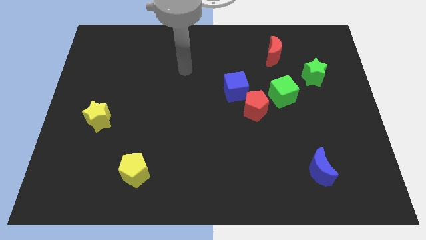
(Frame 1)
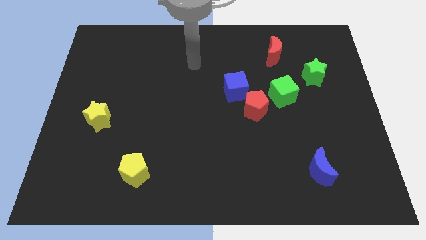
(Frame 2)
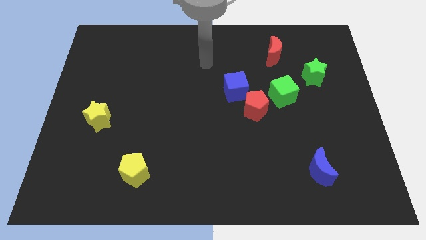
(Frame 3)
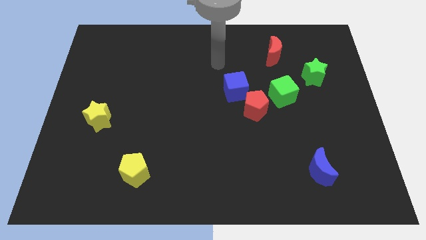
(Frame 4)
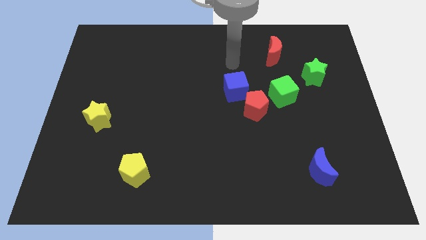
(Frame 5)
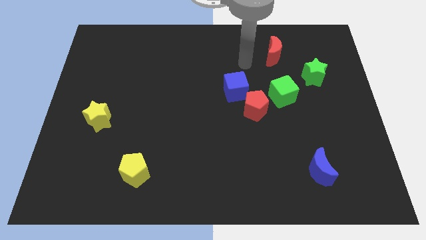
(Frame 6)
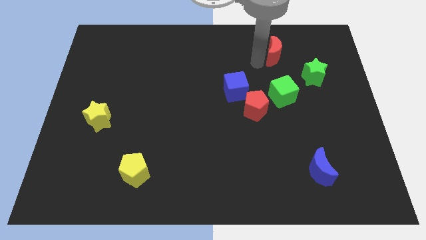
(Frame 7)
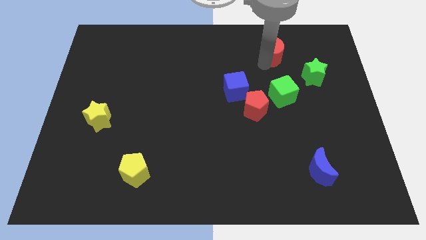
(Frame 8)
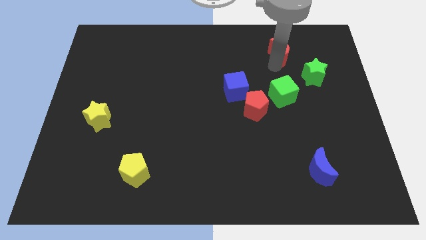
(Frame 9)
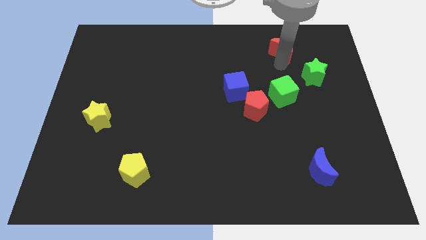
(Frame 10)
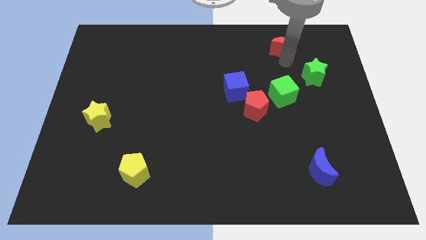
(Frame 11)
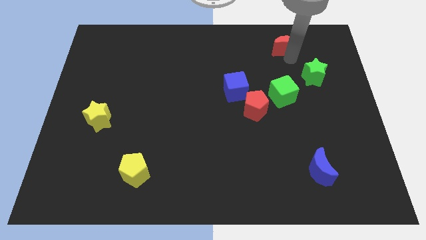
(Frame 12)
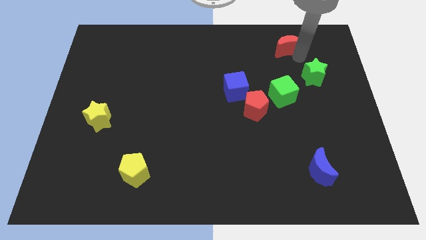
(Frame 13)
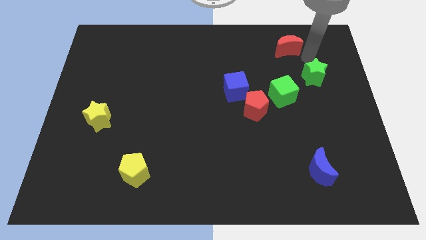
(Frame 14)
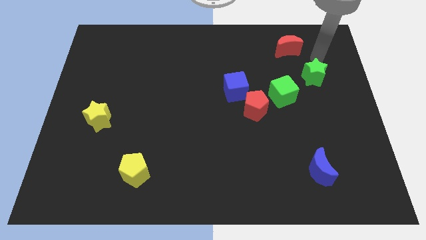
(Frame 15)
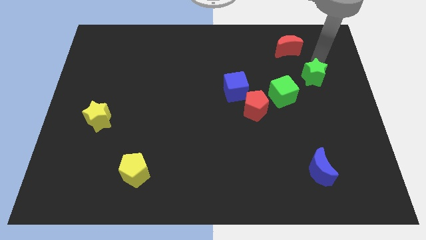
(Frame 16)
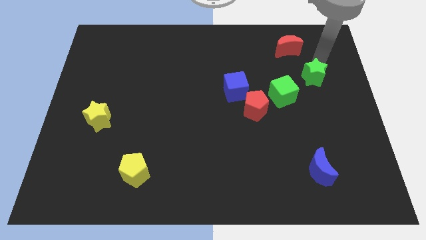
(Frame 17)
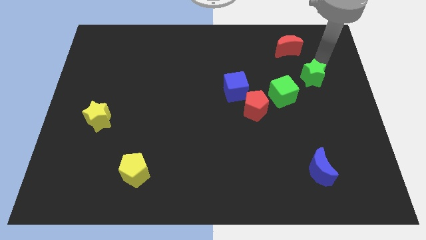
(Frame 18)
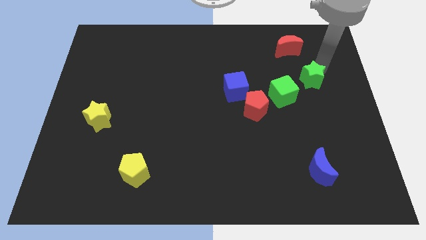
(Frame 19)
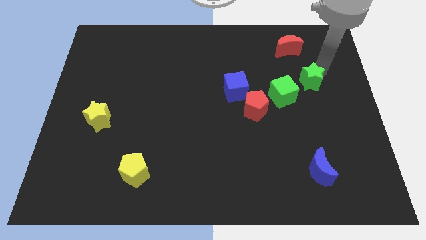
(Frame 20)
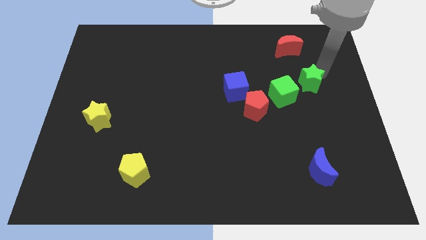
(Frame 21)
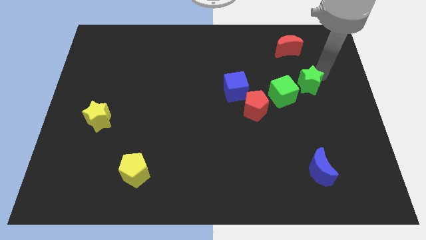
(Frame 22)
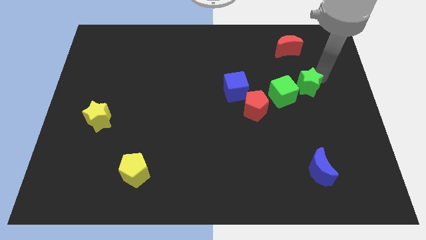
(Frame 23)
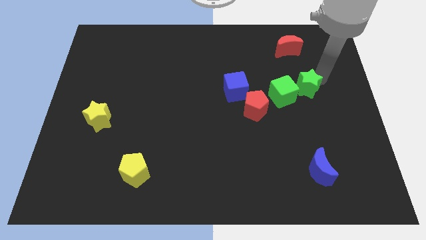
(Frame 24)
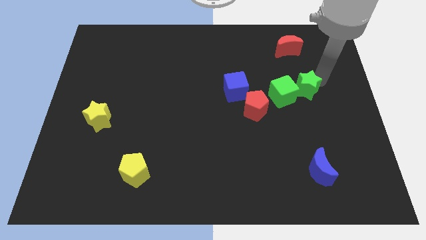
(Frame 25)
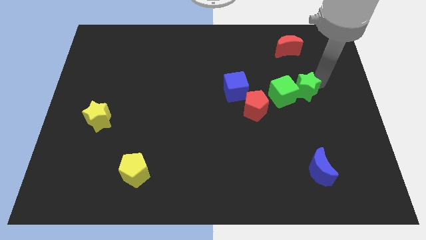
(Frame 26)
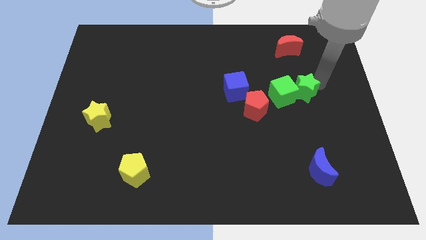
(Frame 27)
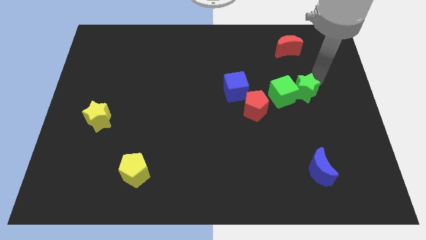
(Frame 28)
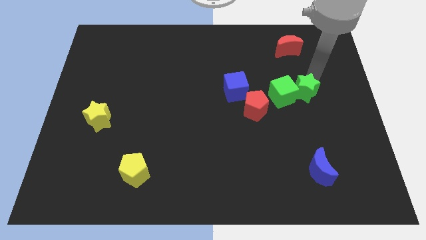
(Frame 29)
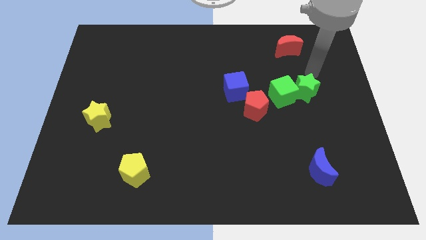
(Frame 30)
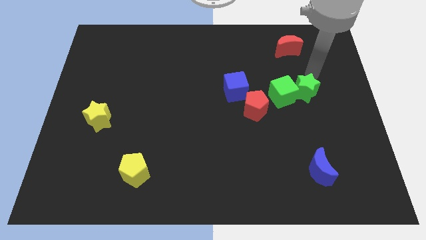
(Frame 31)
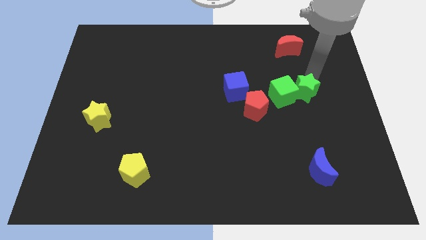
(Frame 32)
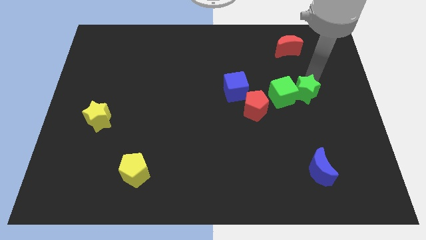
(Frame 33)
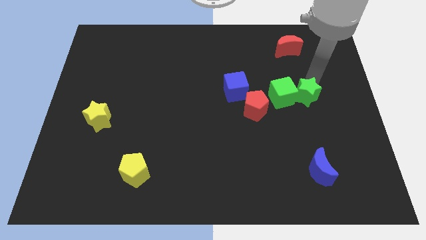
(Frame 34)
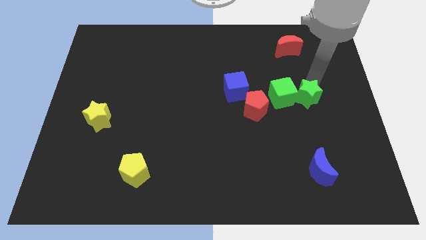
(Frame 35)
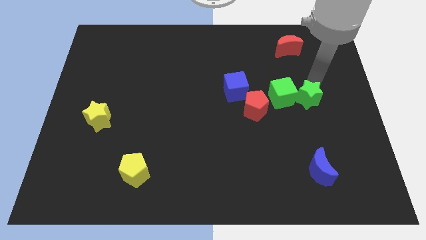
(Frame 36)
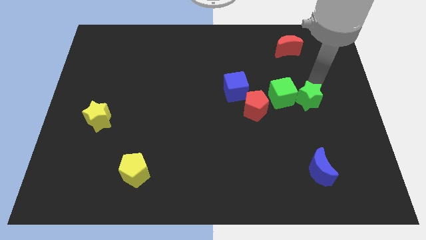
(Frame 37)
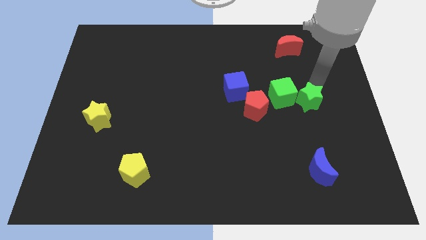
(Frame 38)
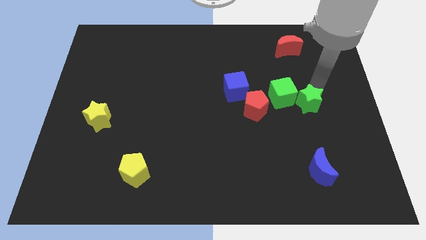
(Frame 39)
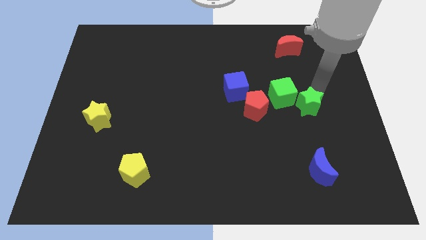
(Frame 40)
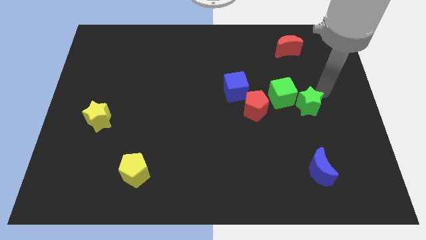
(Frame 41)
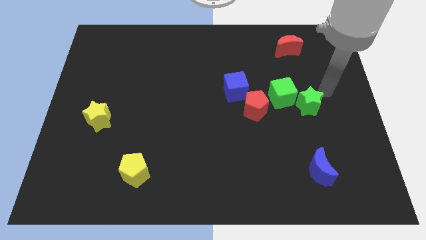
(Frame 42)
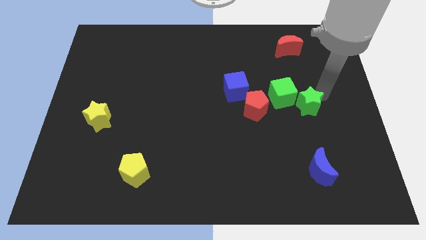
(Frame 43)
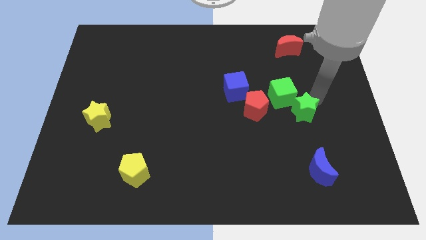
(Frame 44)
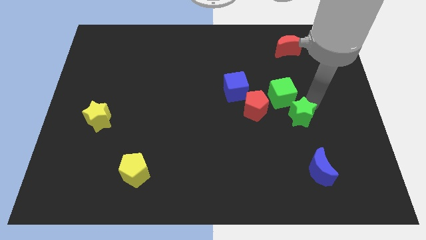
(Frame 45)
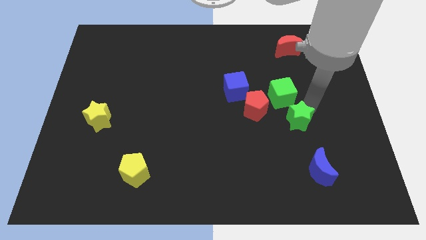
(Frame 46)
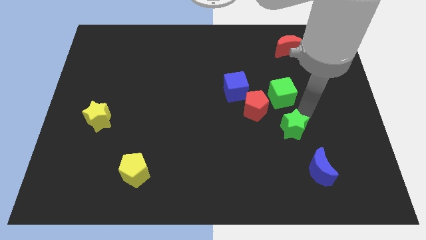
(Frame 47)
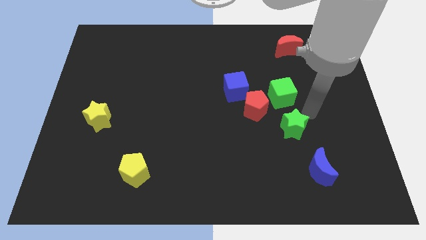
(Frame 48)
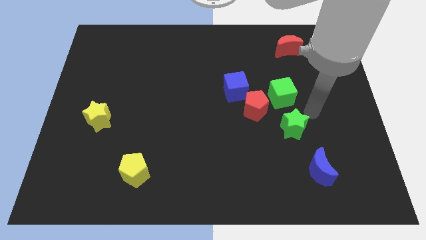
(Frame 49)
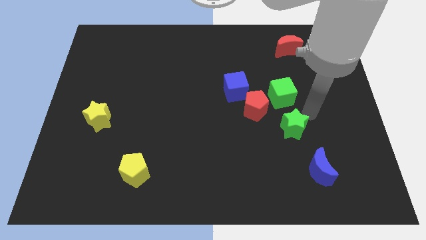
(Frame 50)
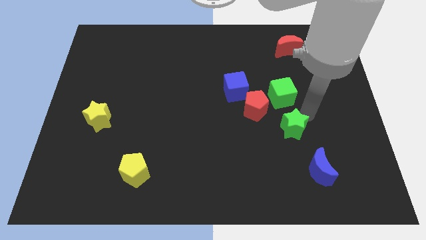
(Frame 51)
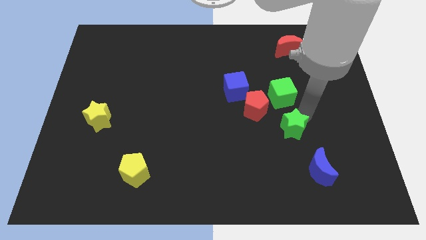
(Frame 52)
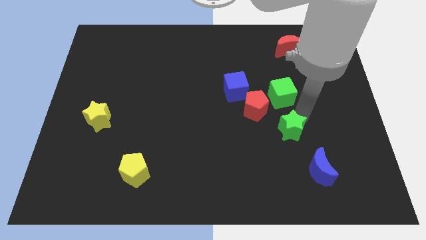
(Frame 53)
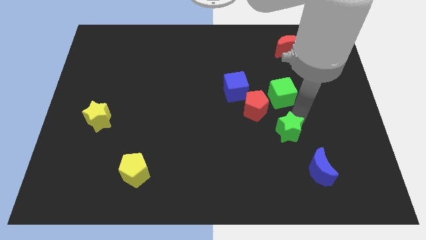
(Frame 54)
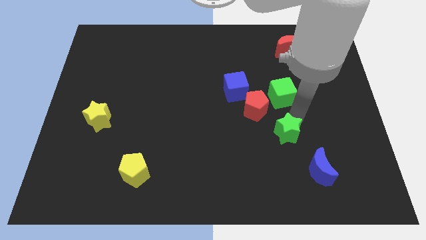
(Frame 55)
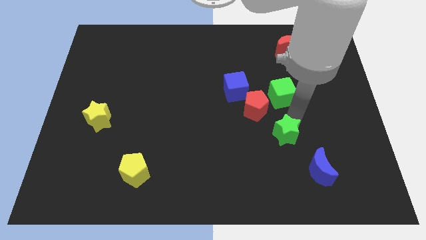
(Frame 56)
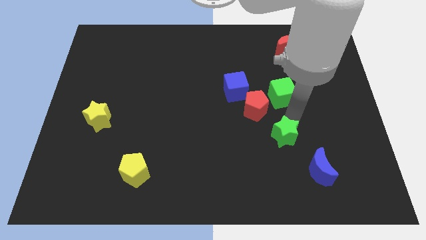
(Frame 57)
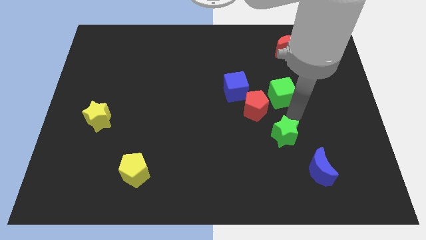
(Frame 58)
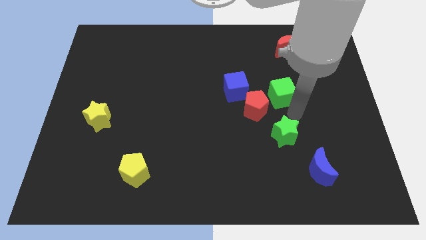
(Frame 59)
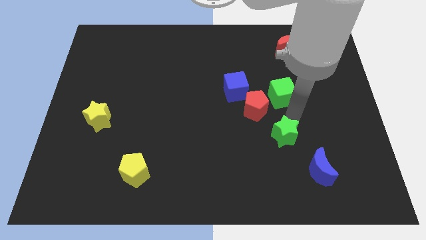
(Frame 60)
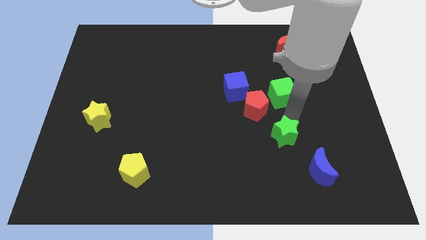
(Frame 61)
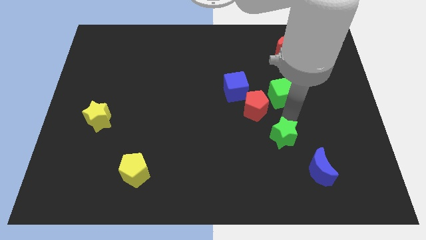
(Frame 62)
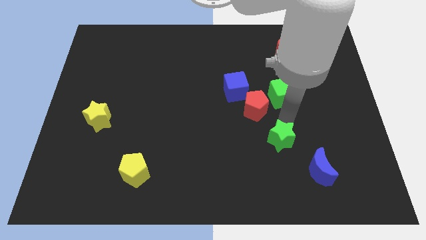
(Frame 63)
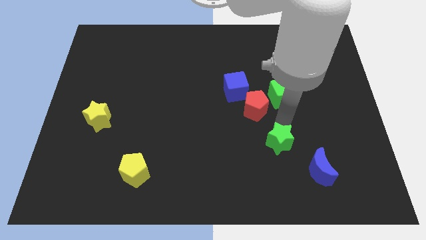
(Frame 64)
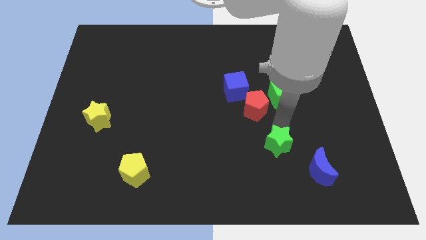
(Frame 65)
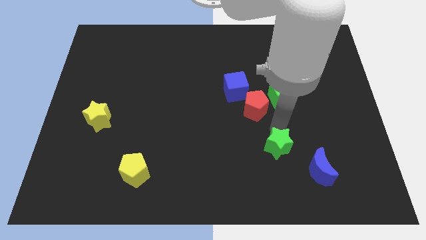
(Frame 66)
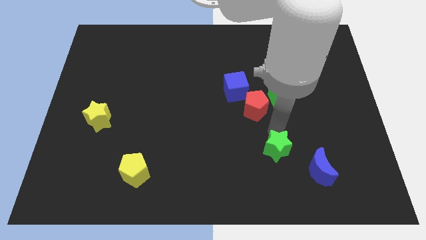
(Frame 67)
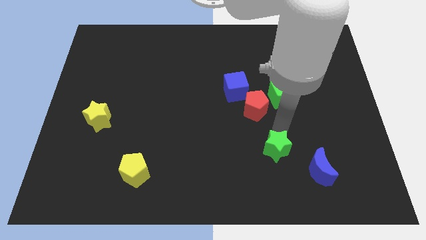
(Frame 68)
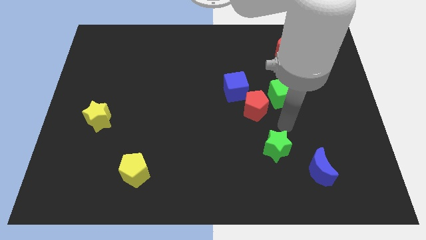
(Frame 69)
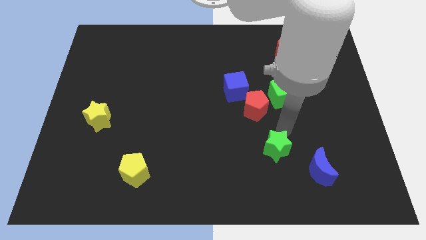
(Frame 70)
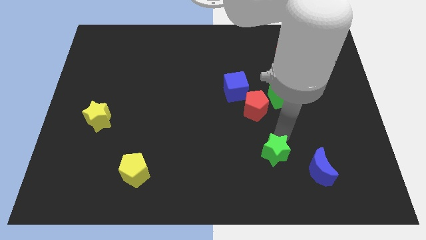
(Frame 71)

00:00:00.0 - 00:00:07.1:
push the green star left of the blue moon

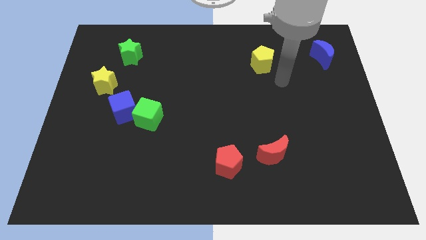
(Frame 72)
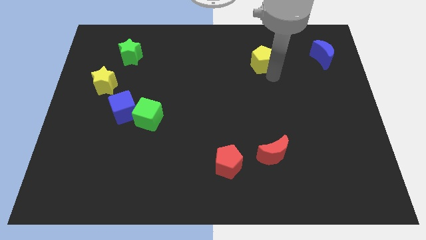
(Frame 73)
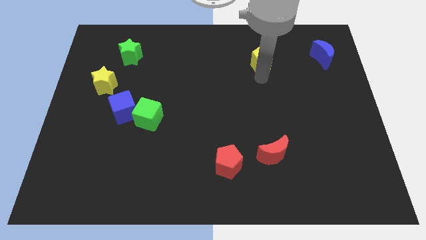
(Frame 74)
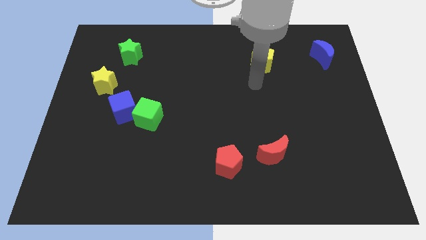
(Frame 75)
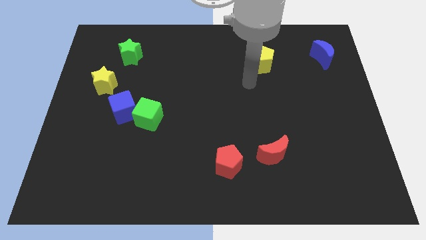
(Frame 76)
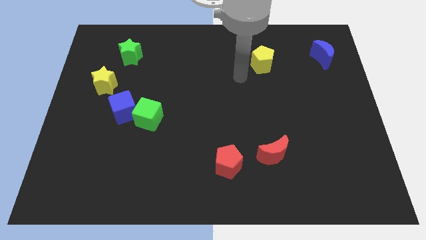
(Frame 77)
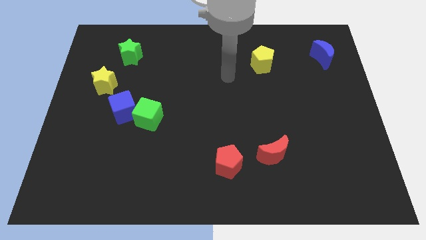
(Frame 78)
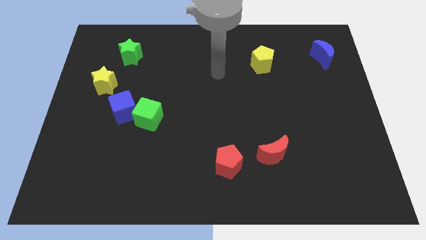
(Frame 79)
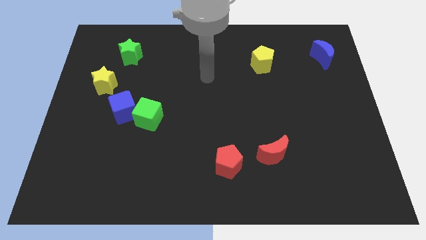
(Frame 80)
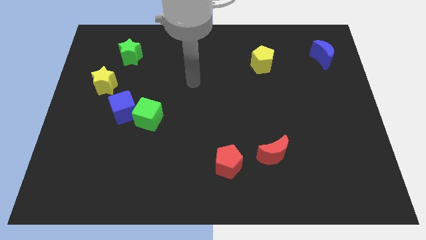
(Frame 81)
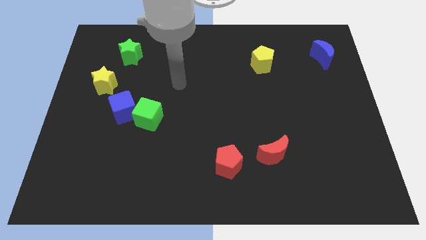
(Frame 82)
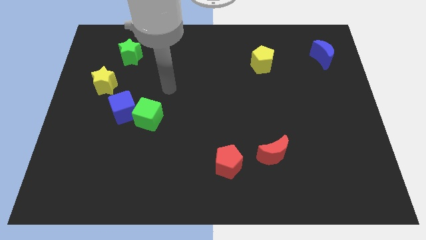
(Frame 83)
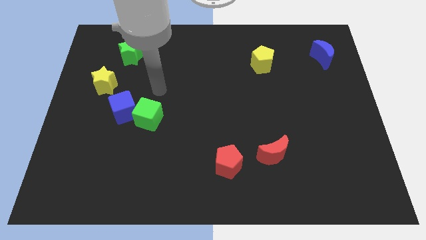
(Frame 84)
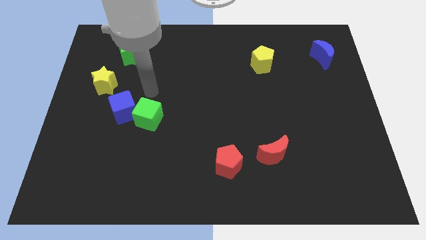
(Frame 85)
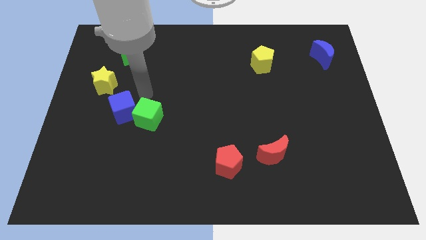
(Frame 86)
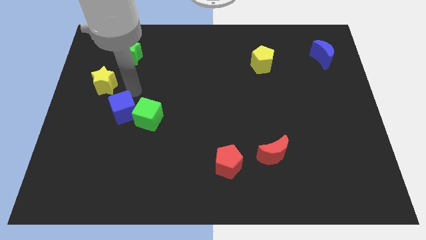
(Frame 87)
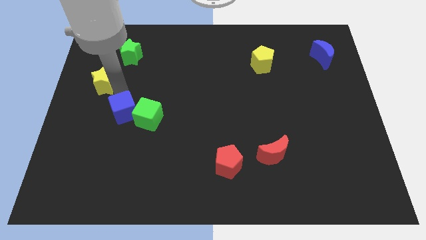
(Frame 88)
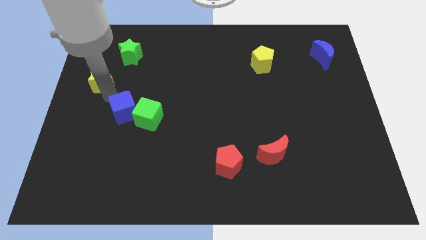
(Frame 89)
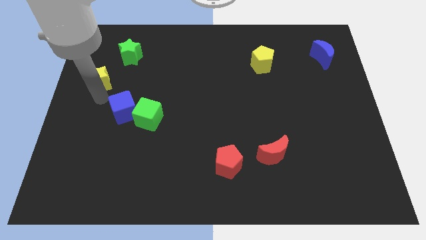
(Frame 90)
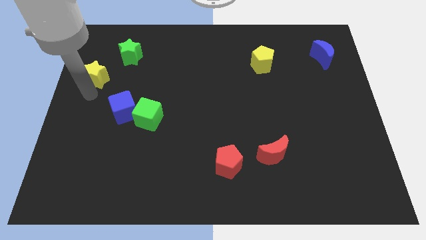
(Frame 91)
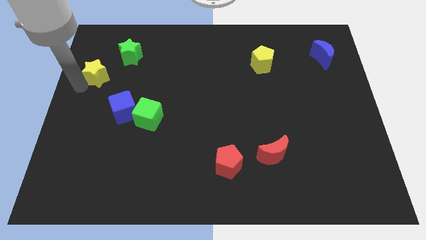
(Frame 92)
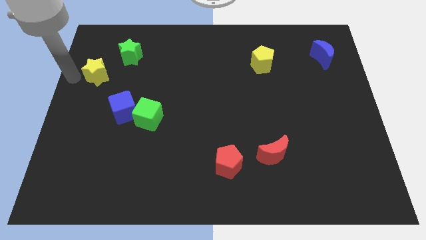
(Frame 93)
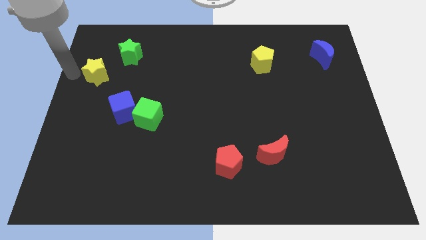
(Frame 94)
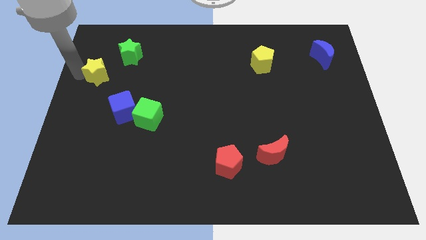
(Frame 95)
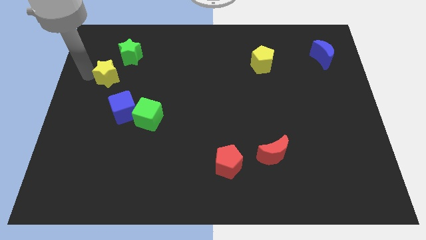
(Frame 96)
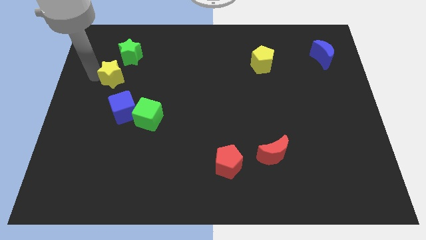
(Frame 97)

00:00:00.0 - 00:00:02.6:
slide the yellow star above the blue cube
